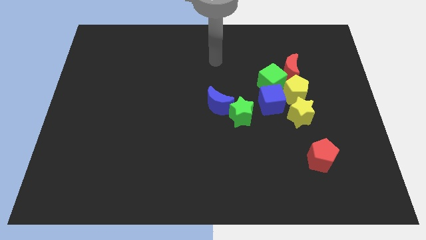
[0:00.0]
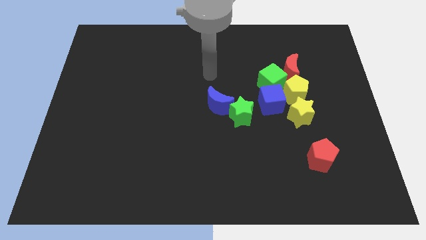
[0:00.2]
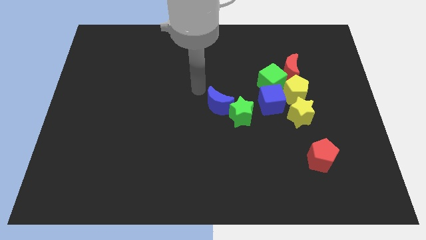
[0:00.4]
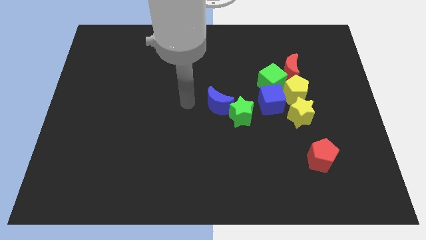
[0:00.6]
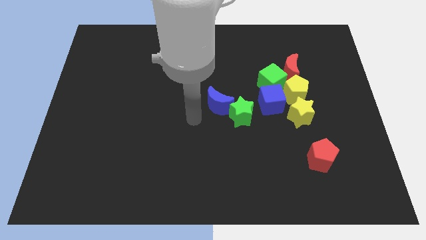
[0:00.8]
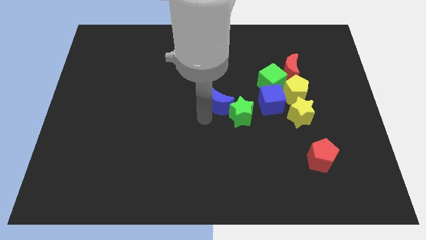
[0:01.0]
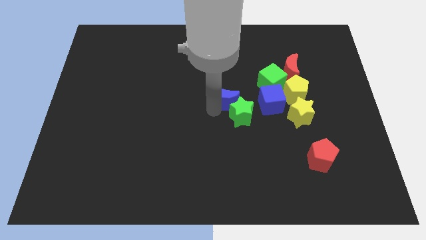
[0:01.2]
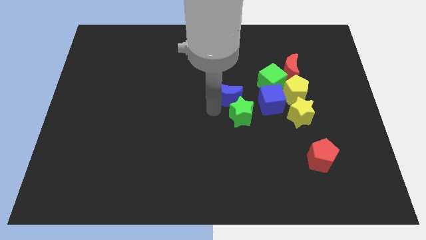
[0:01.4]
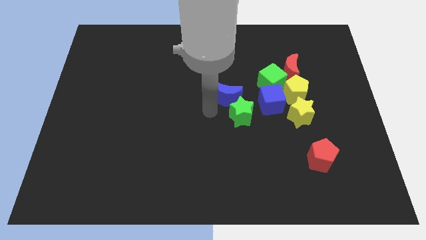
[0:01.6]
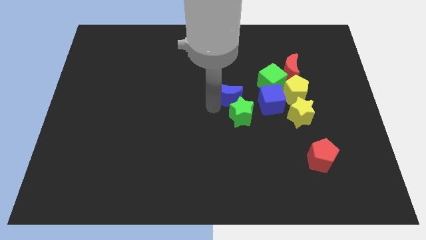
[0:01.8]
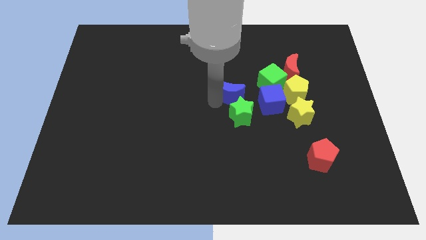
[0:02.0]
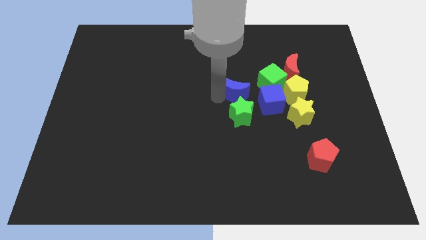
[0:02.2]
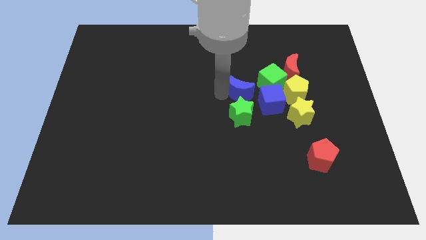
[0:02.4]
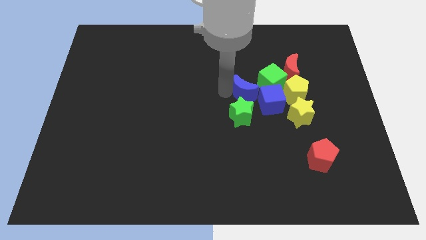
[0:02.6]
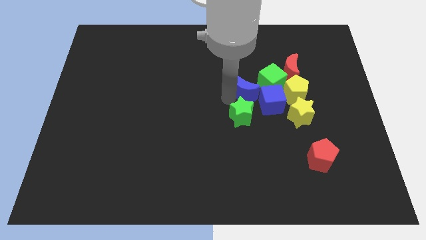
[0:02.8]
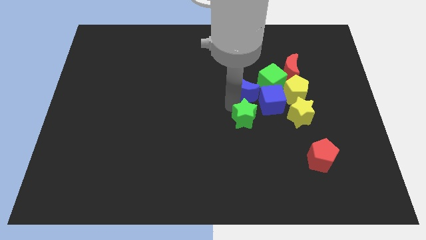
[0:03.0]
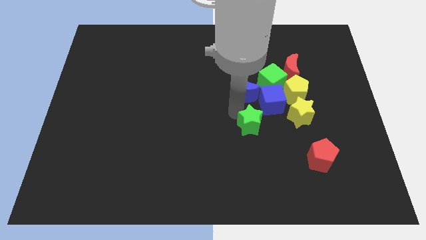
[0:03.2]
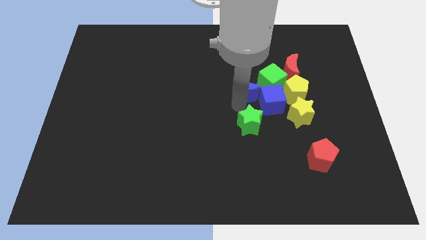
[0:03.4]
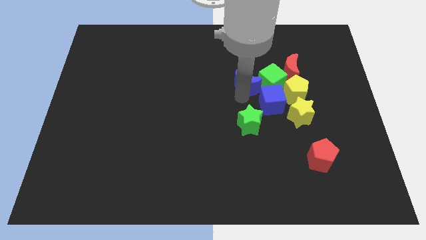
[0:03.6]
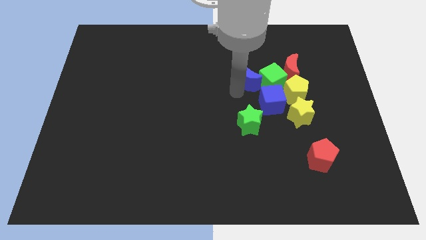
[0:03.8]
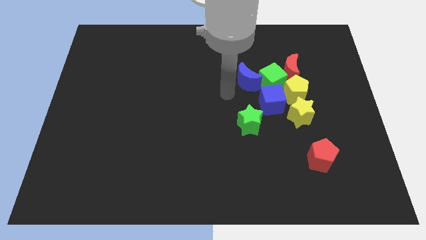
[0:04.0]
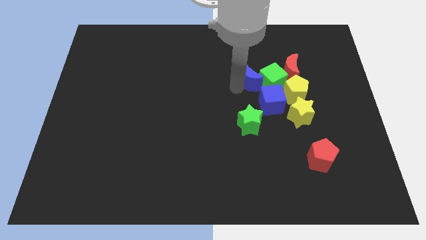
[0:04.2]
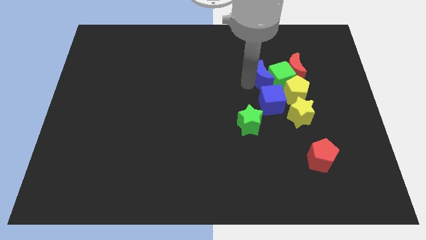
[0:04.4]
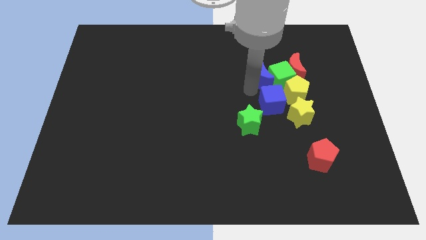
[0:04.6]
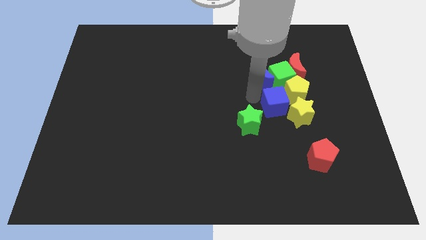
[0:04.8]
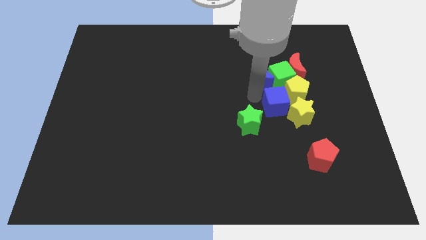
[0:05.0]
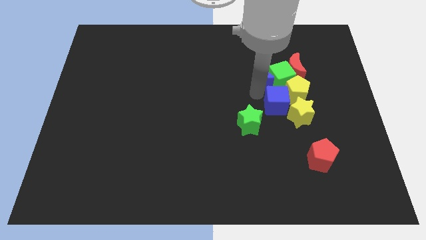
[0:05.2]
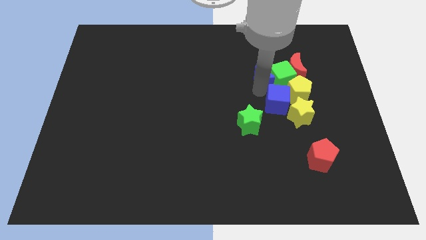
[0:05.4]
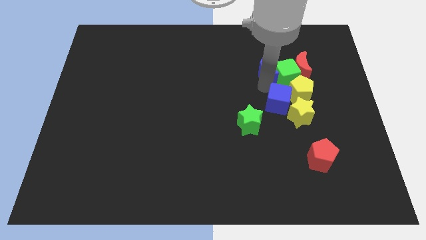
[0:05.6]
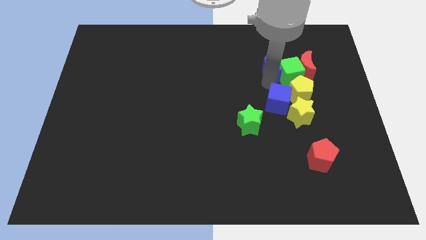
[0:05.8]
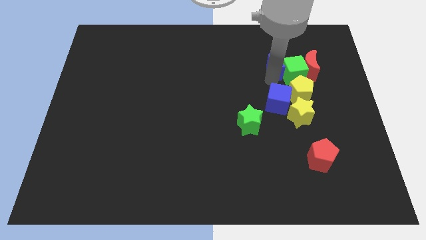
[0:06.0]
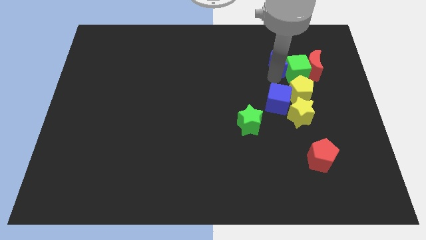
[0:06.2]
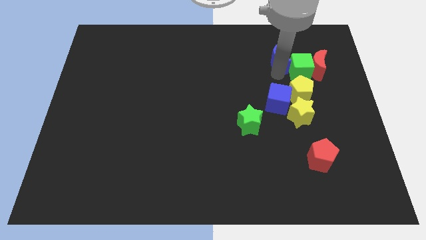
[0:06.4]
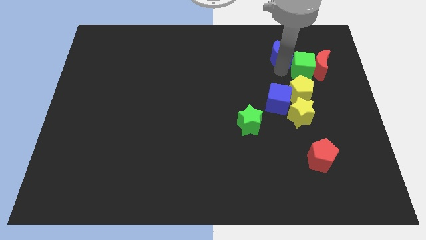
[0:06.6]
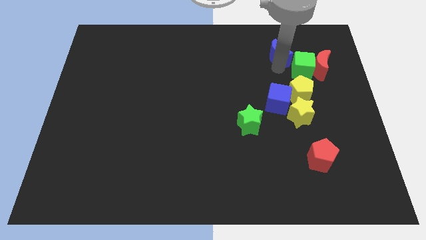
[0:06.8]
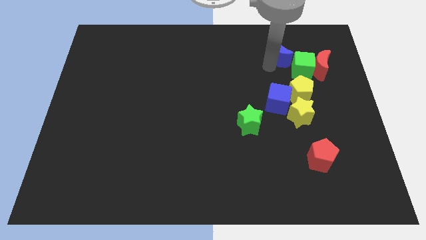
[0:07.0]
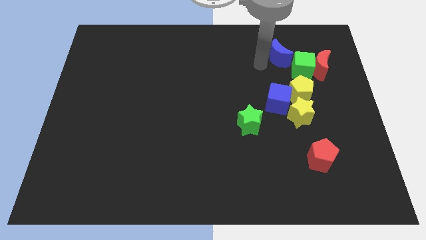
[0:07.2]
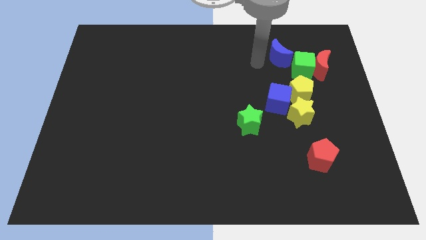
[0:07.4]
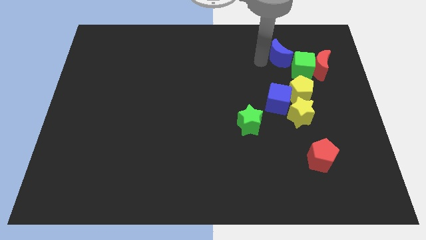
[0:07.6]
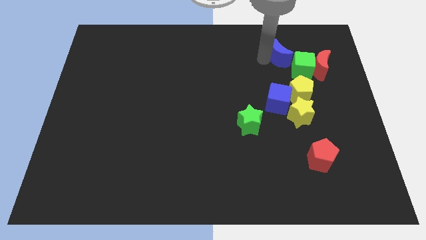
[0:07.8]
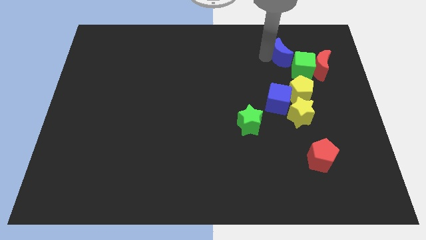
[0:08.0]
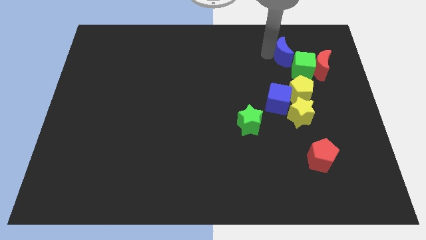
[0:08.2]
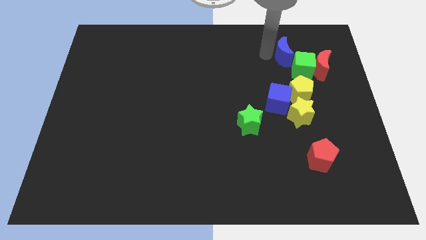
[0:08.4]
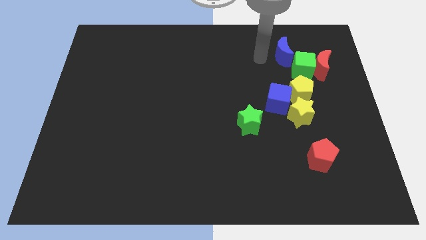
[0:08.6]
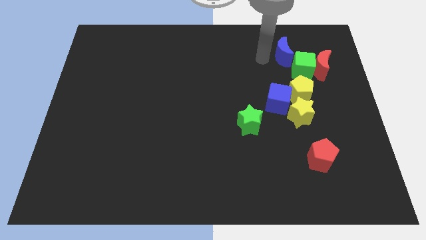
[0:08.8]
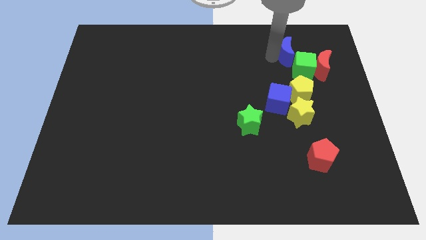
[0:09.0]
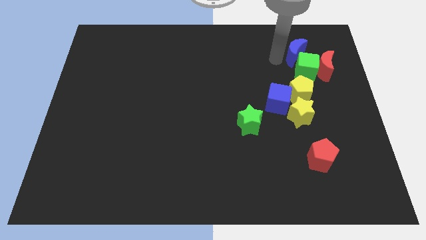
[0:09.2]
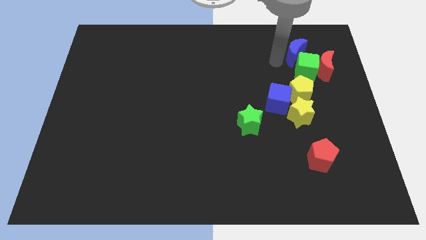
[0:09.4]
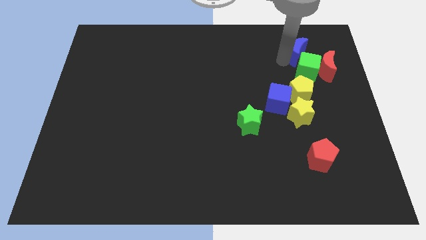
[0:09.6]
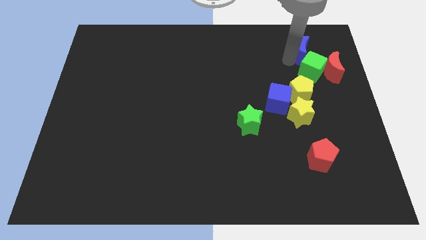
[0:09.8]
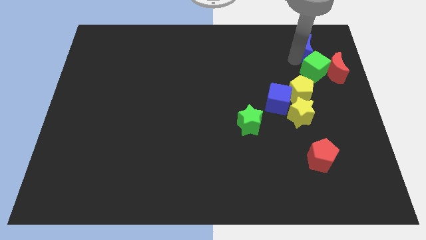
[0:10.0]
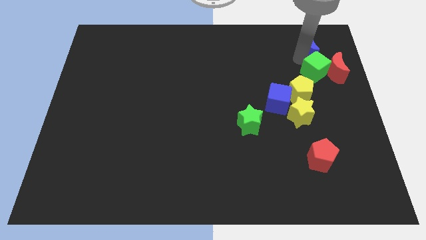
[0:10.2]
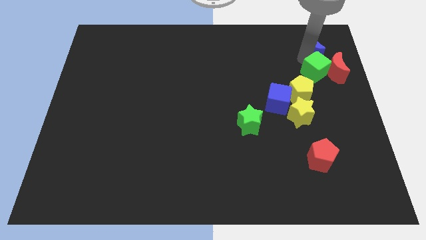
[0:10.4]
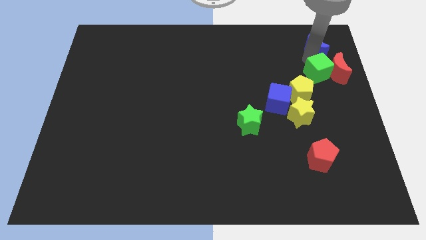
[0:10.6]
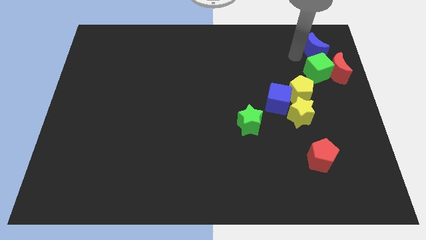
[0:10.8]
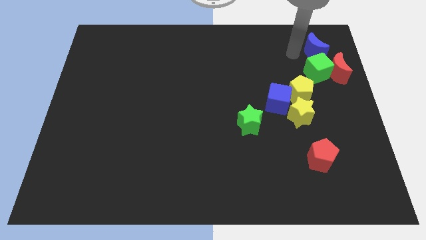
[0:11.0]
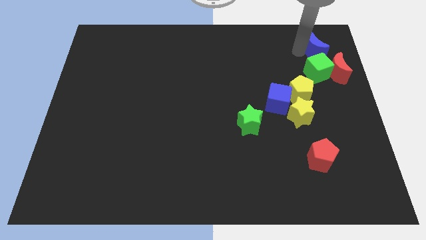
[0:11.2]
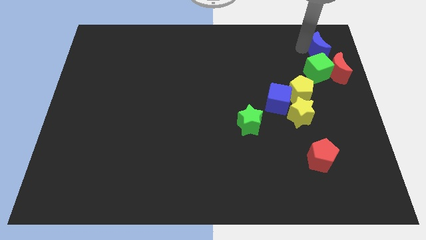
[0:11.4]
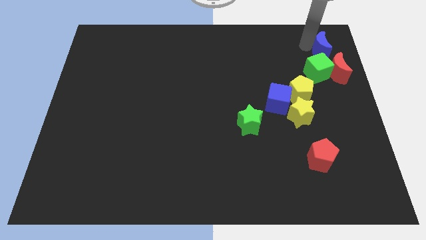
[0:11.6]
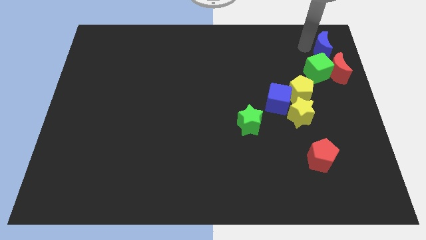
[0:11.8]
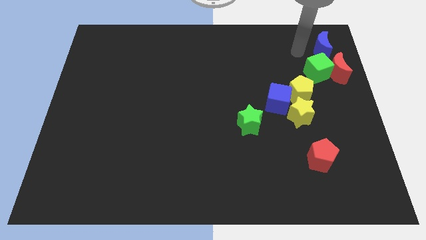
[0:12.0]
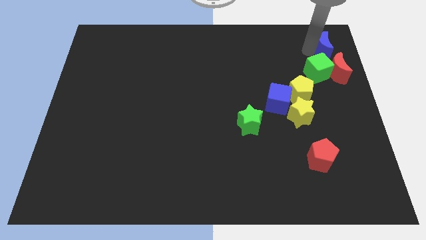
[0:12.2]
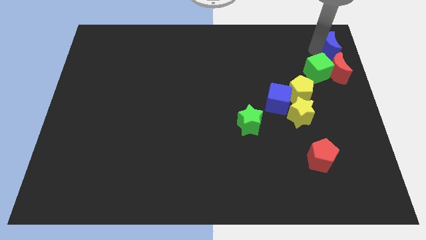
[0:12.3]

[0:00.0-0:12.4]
push the blue moon to the top right corner
